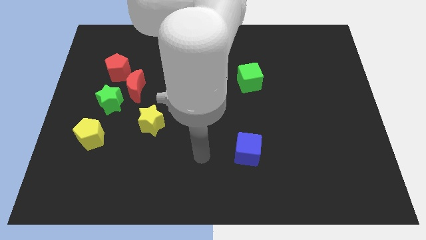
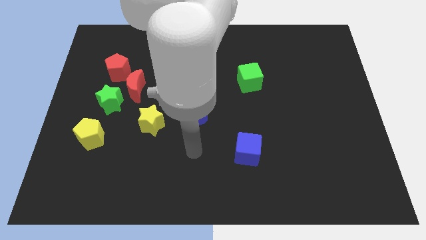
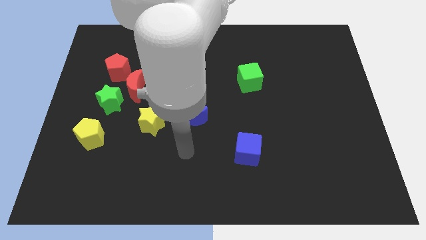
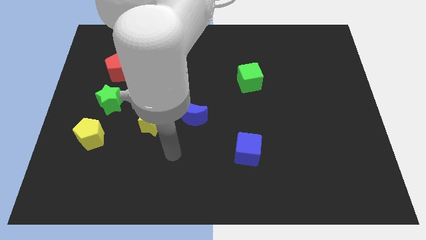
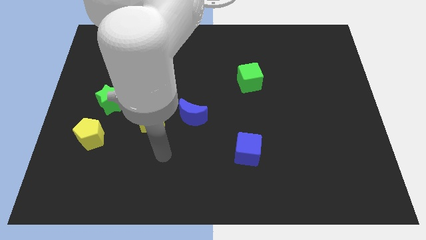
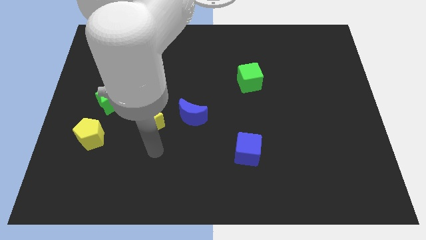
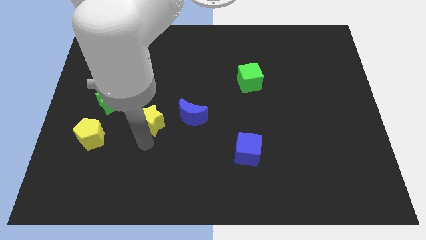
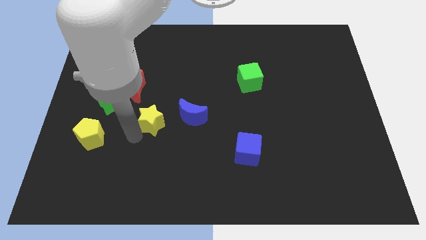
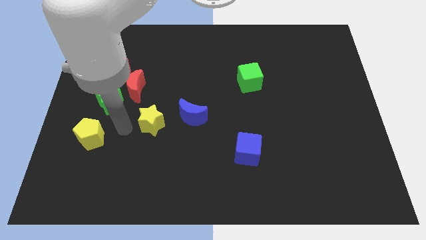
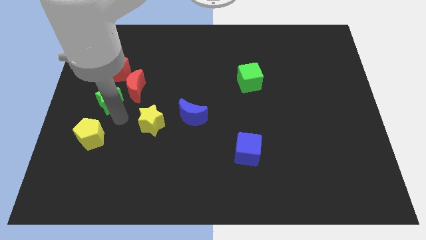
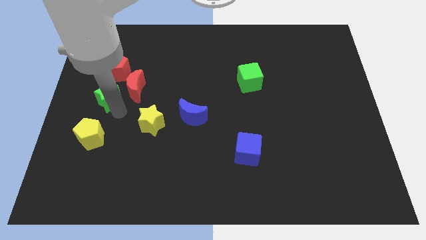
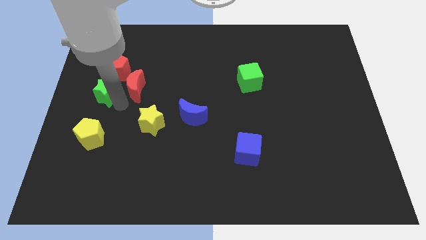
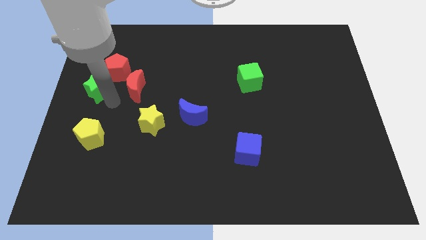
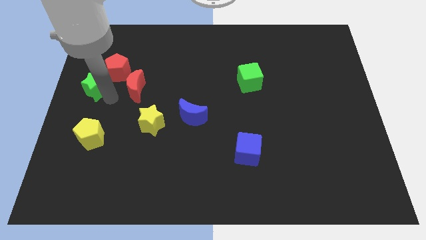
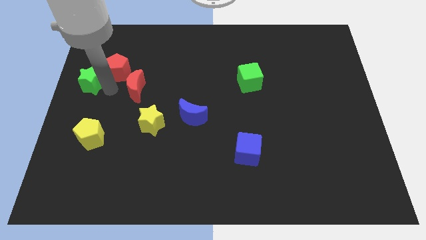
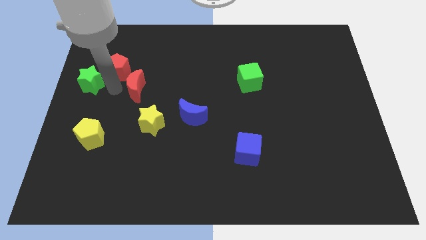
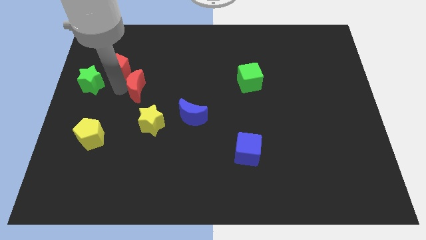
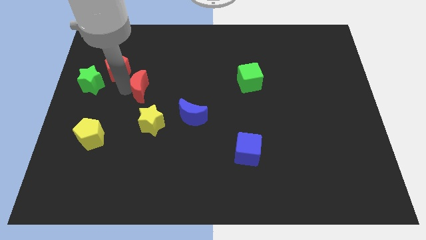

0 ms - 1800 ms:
separate the red moon from the green star and red pentagon

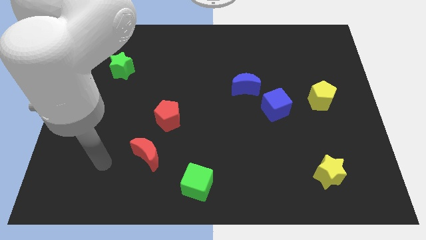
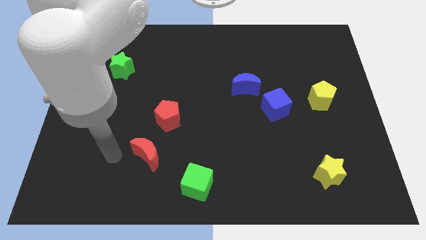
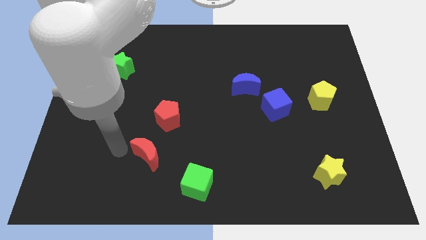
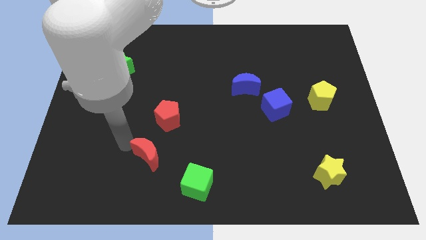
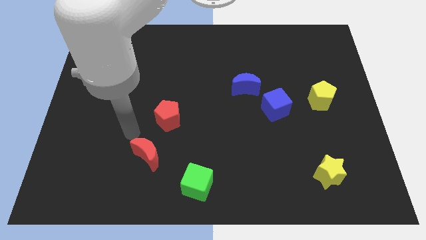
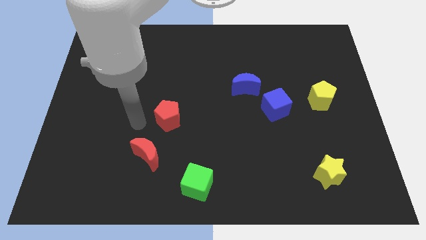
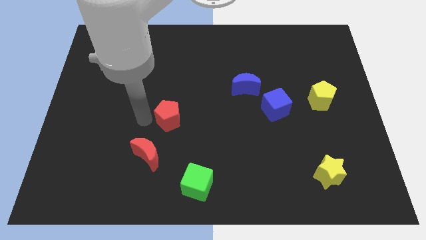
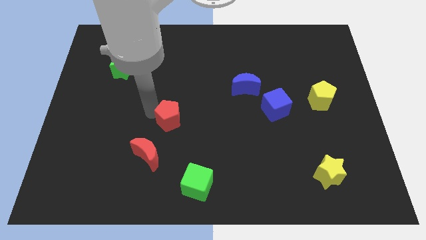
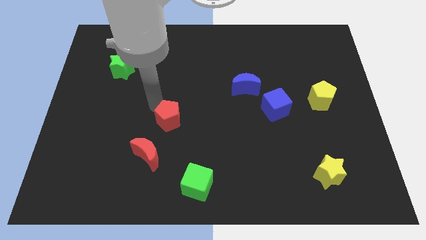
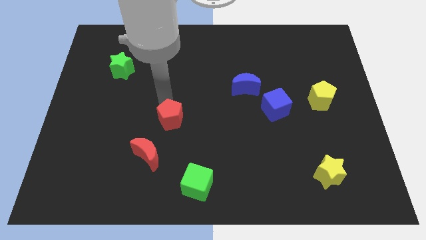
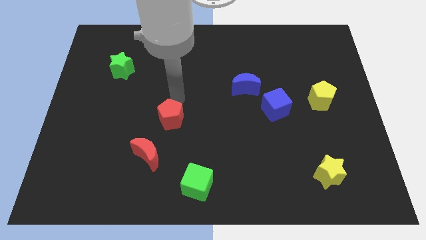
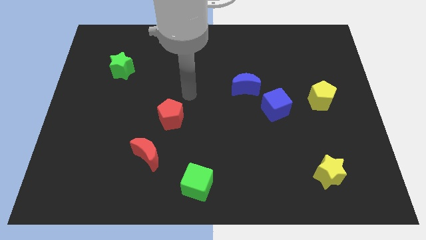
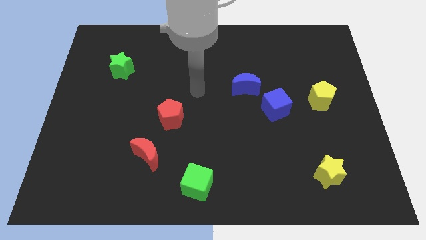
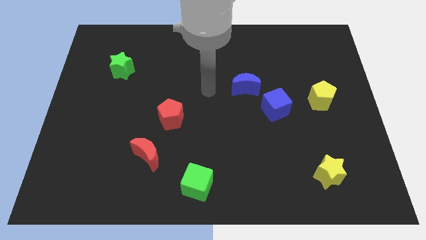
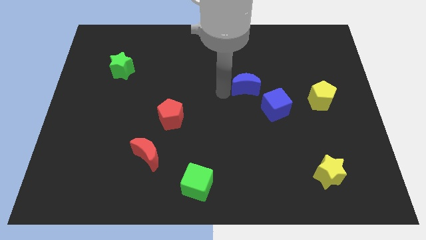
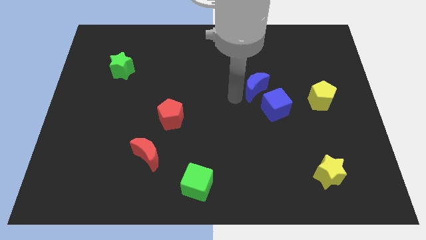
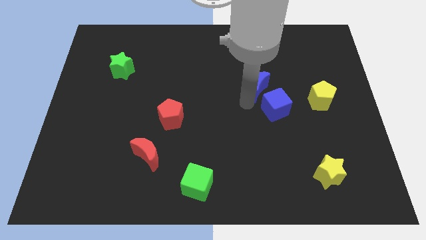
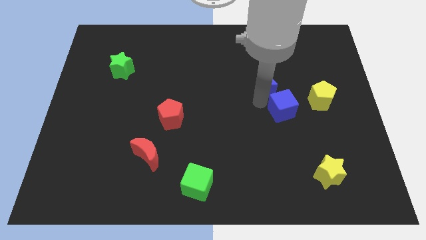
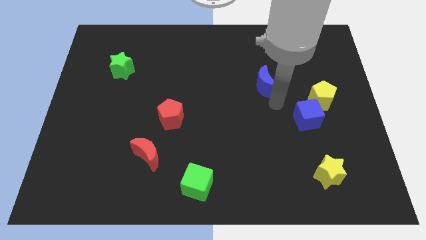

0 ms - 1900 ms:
move the blue moon away from the blue cube

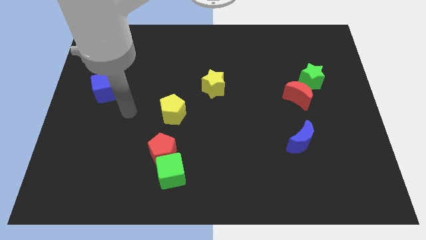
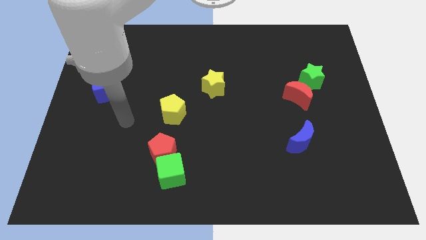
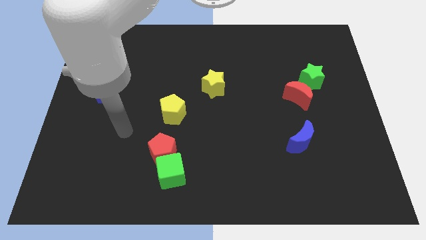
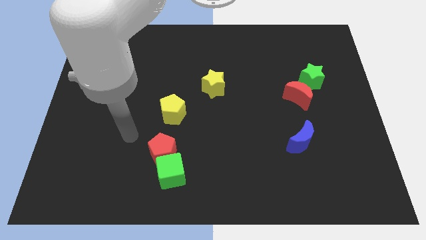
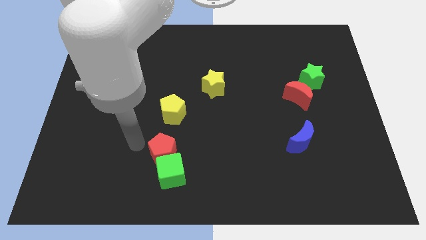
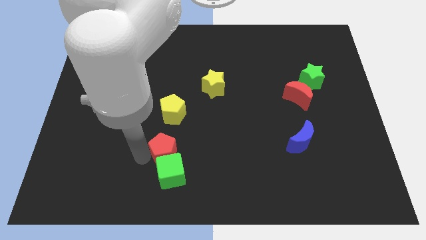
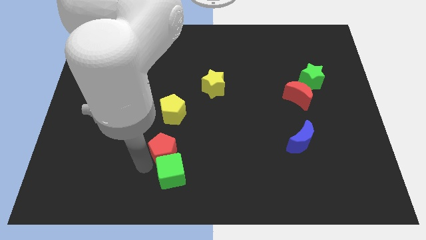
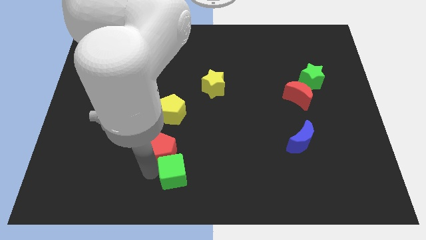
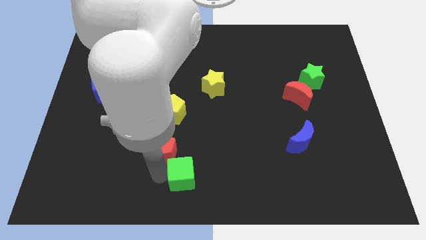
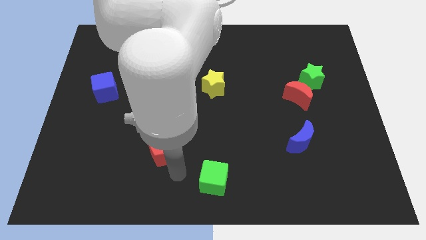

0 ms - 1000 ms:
separate the red pentagon from the green cube

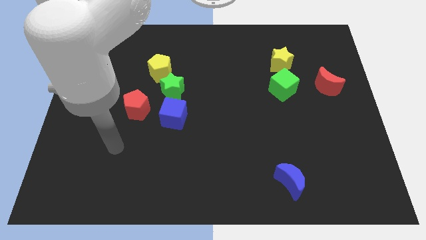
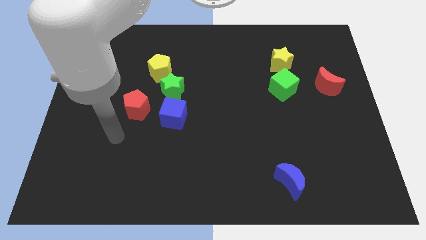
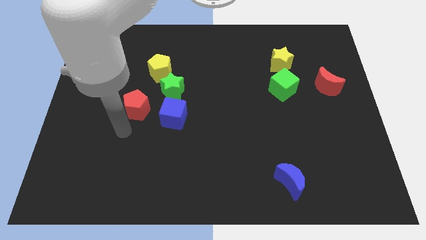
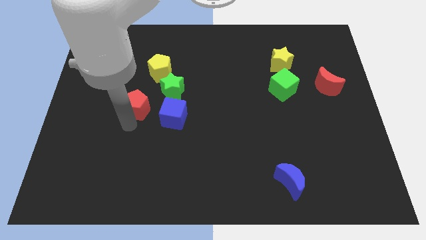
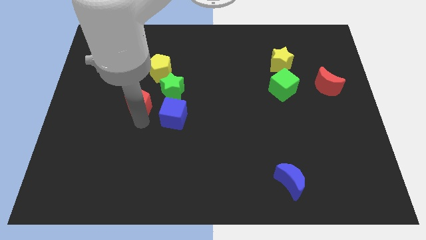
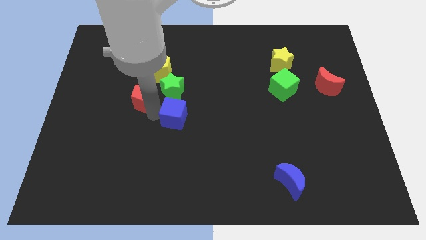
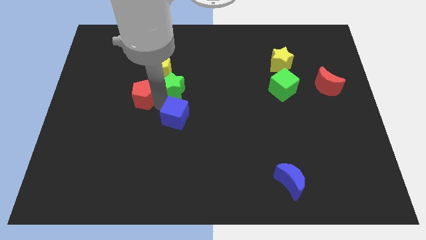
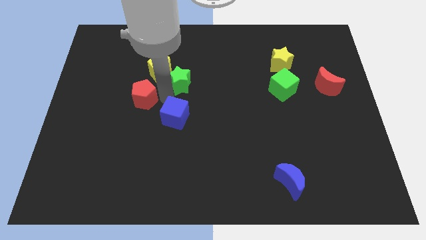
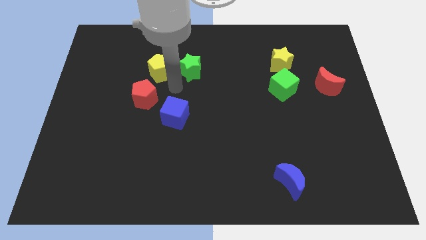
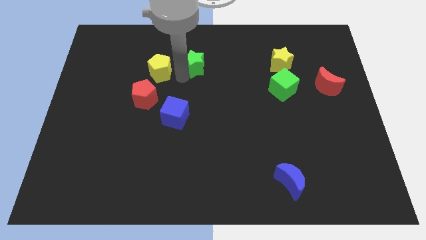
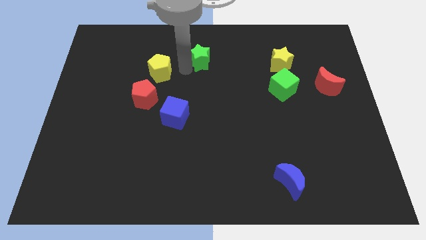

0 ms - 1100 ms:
separate the yellow pentagon from the green star

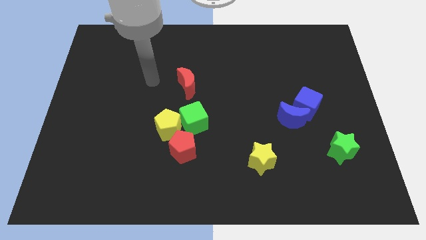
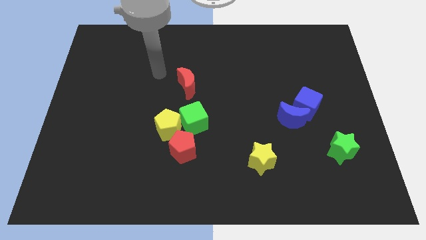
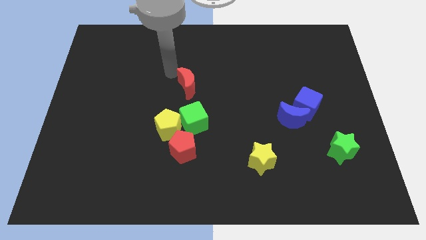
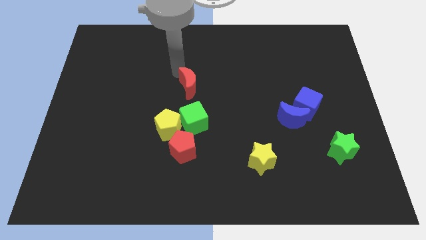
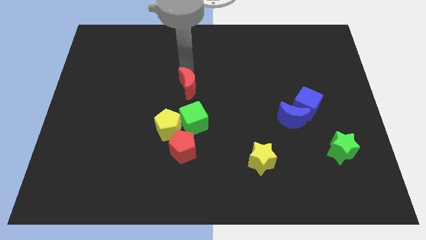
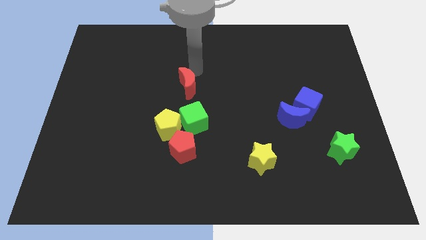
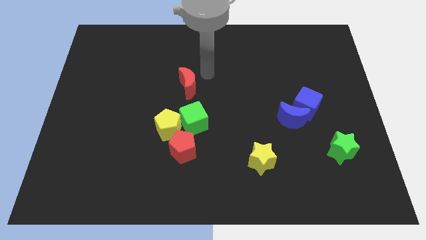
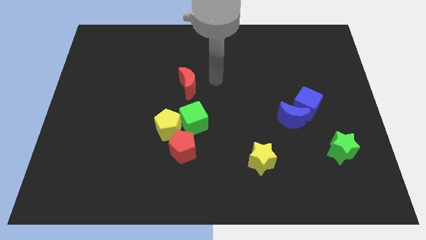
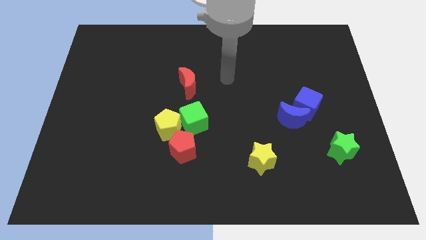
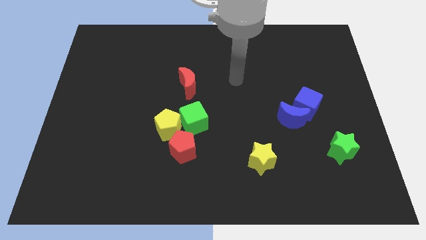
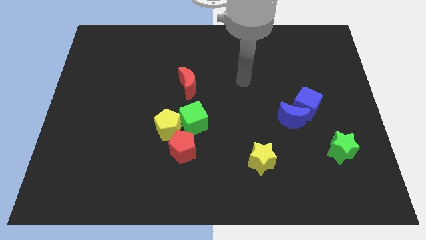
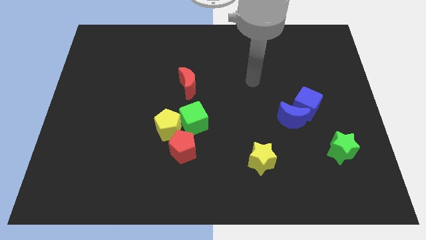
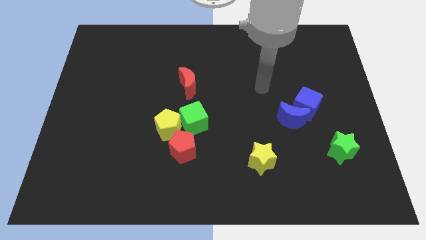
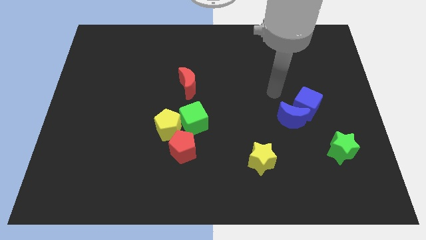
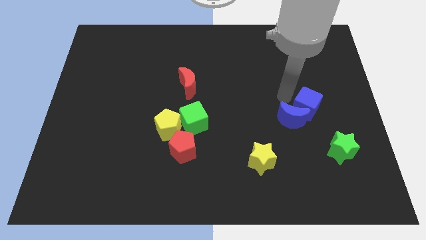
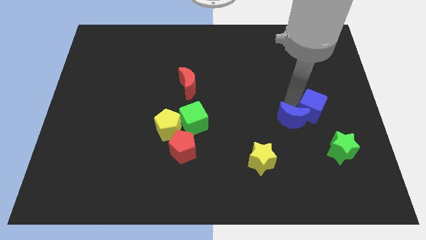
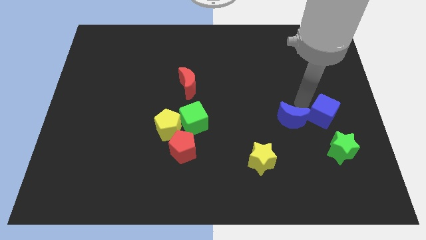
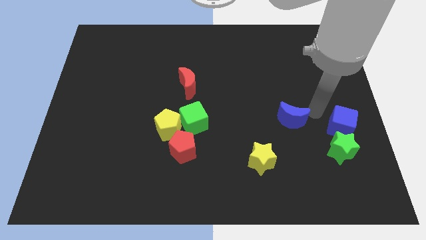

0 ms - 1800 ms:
separate the blue moon from the blue cube

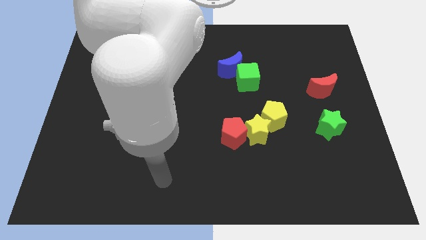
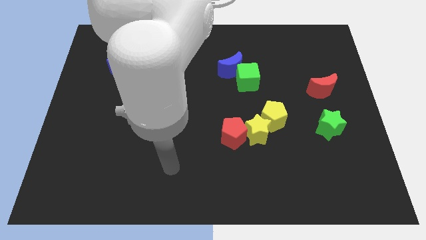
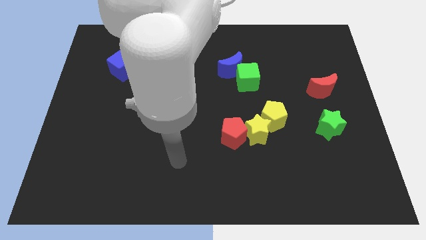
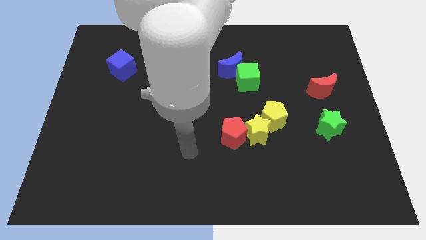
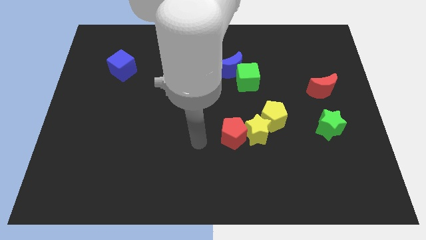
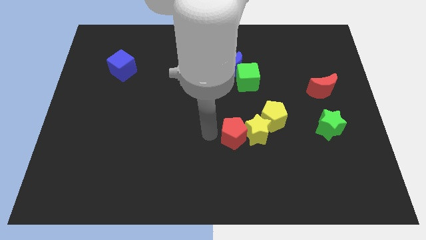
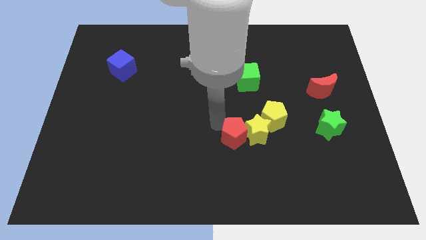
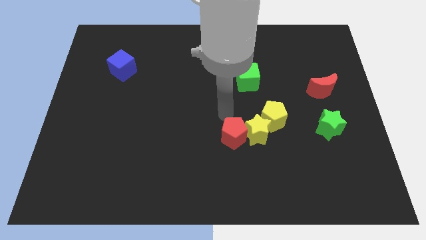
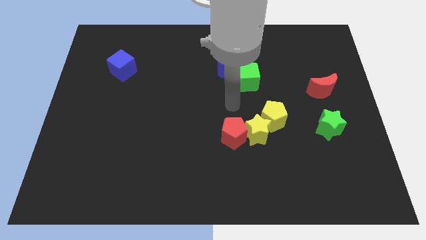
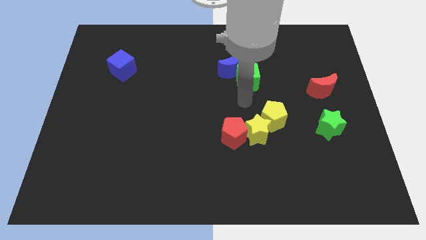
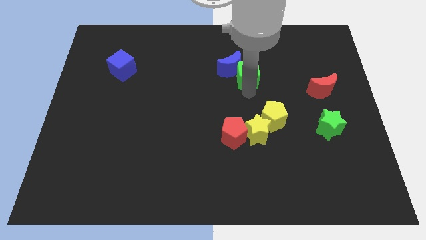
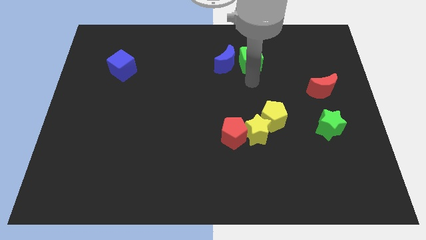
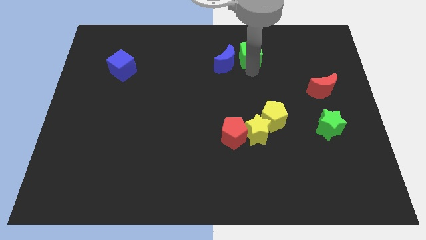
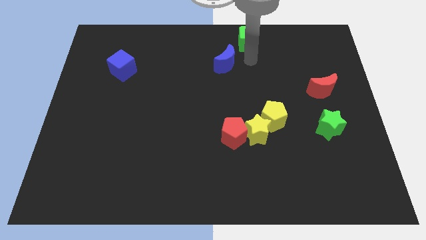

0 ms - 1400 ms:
pull the blue moon apart from the green cube
